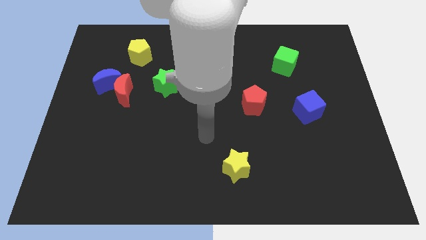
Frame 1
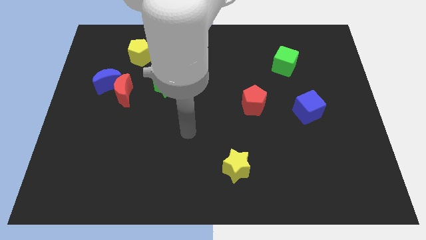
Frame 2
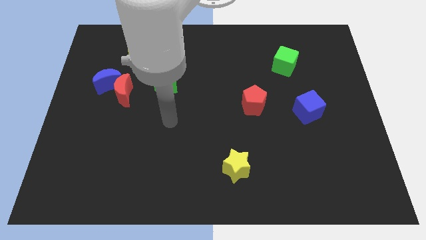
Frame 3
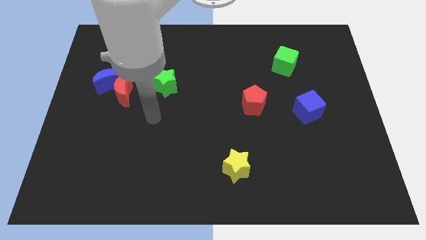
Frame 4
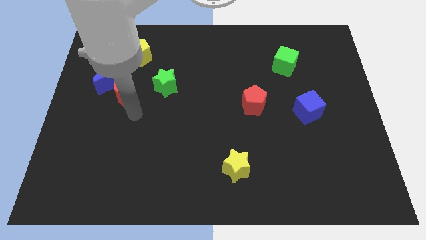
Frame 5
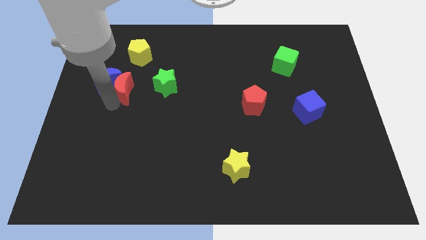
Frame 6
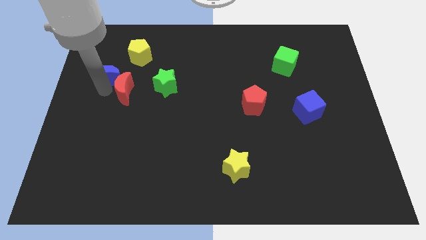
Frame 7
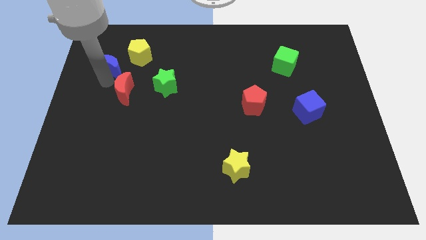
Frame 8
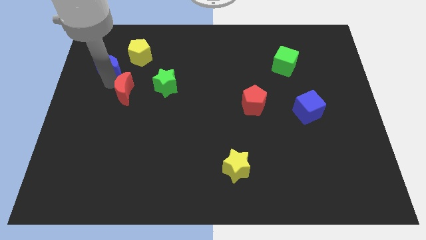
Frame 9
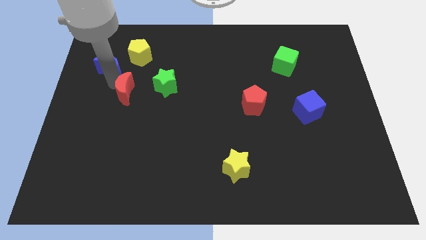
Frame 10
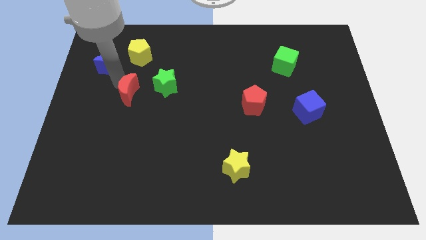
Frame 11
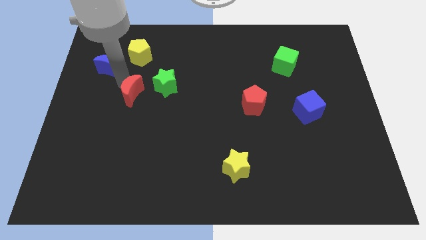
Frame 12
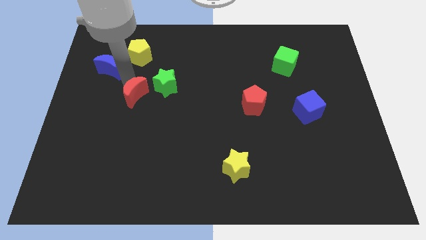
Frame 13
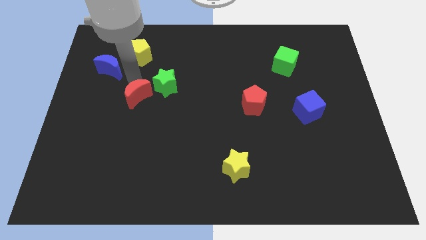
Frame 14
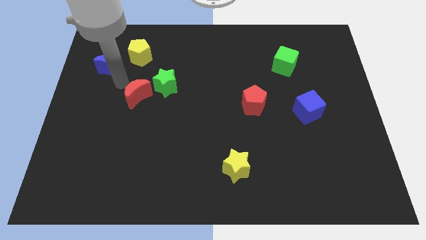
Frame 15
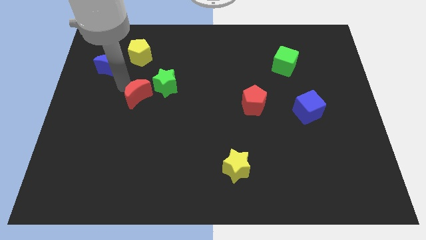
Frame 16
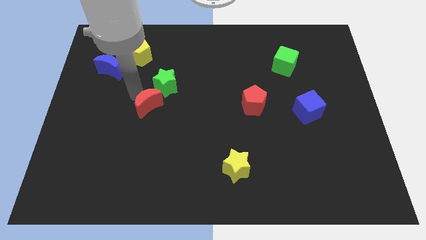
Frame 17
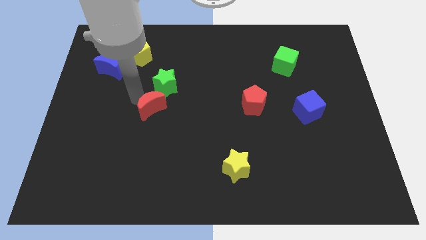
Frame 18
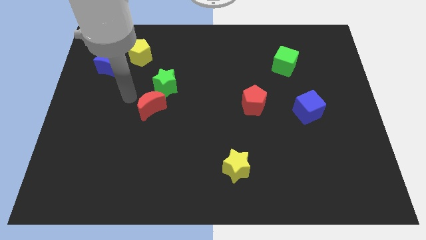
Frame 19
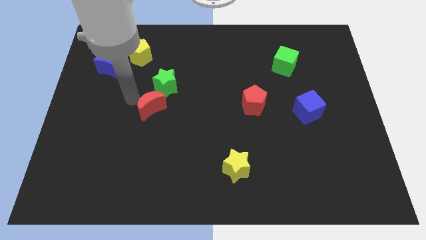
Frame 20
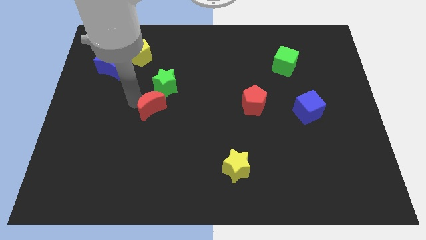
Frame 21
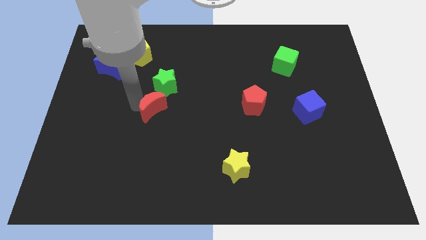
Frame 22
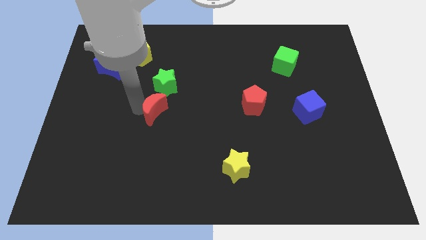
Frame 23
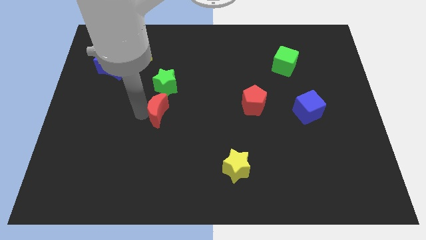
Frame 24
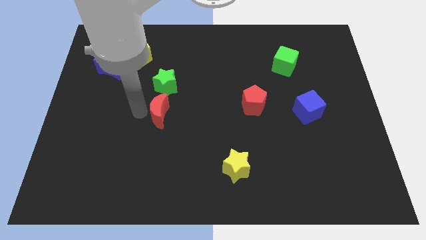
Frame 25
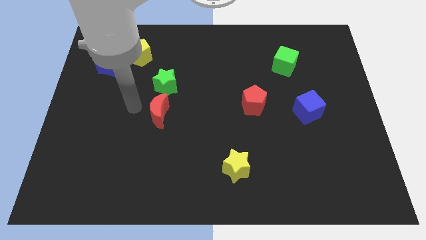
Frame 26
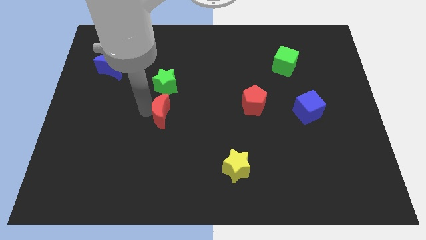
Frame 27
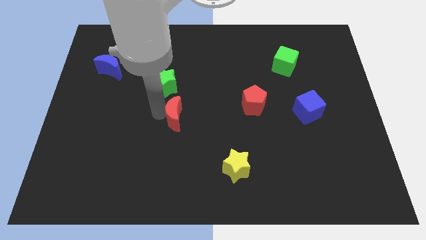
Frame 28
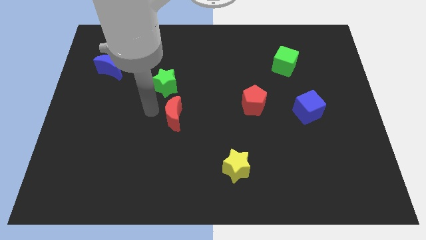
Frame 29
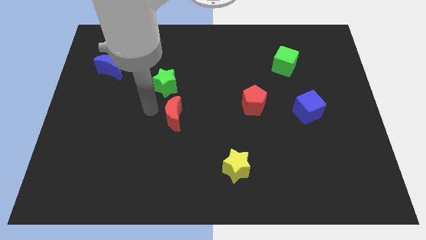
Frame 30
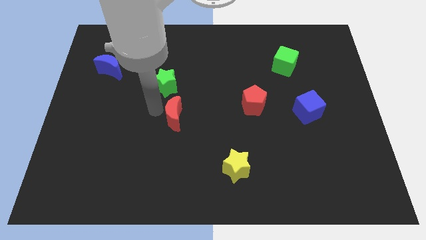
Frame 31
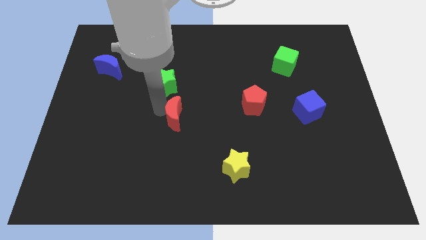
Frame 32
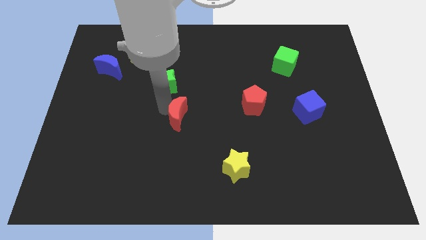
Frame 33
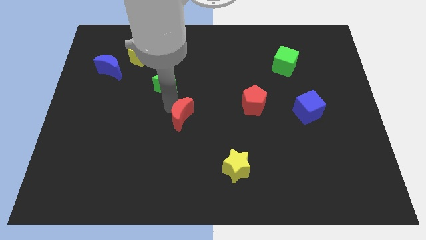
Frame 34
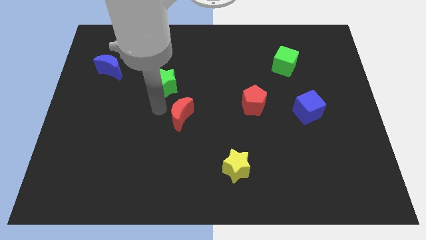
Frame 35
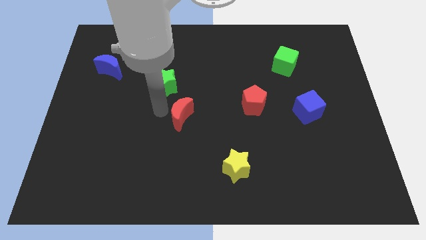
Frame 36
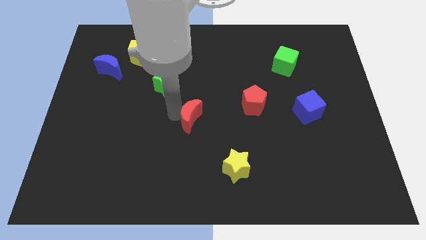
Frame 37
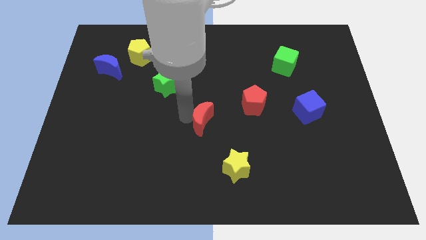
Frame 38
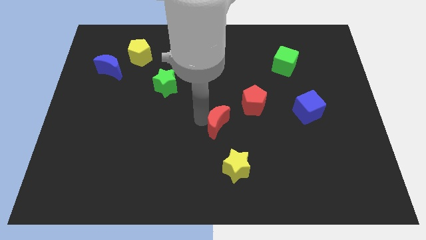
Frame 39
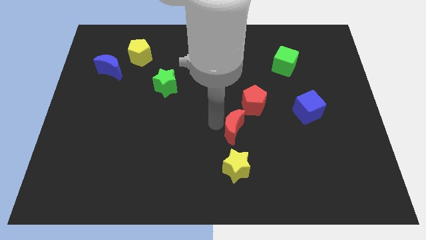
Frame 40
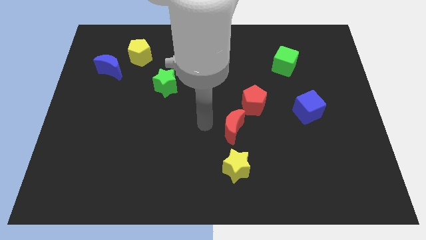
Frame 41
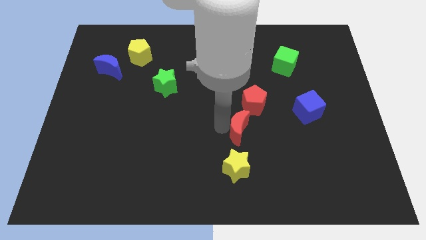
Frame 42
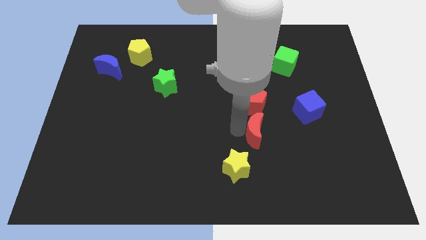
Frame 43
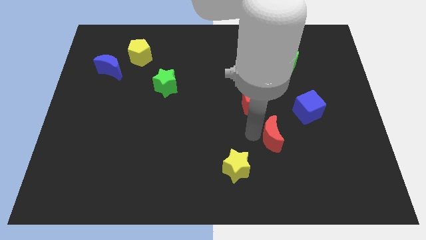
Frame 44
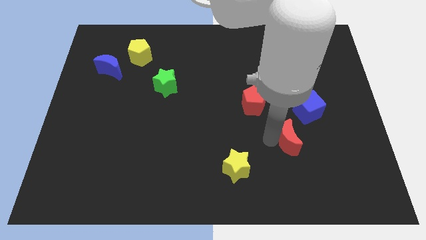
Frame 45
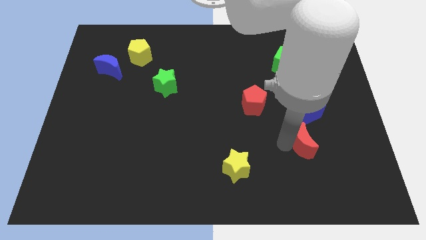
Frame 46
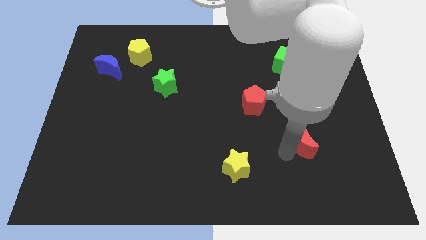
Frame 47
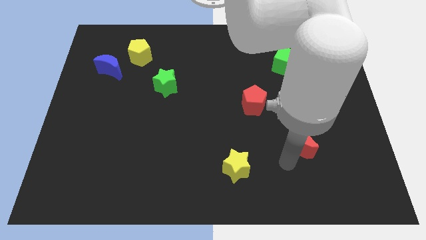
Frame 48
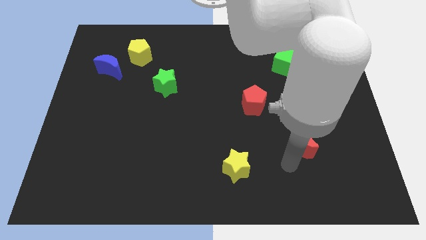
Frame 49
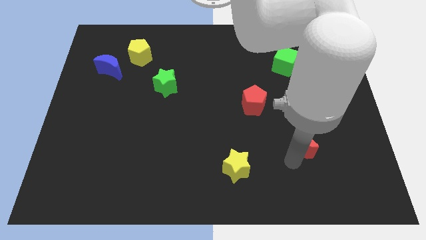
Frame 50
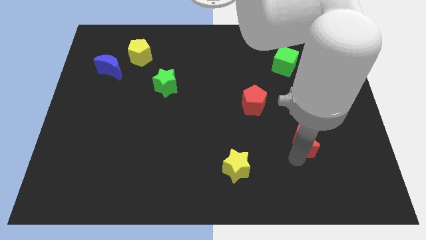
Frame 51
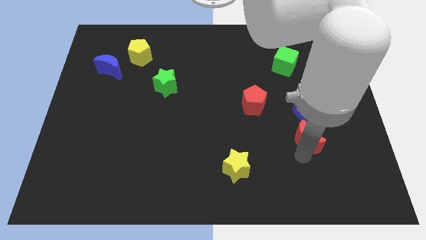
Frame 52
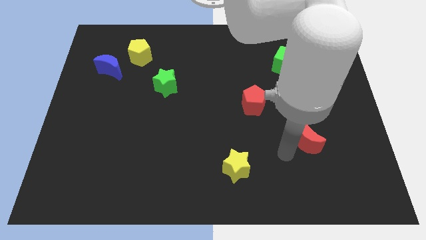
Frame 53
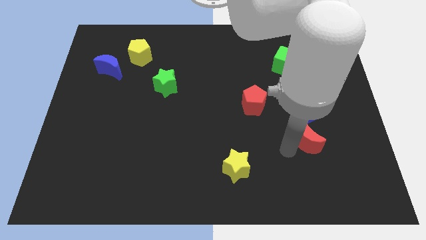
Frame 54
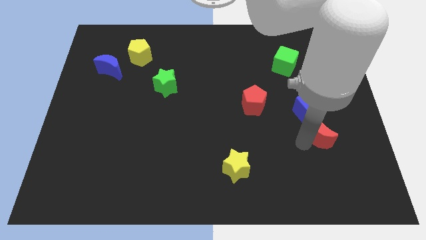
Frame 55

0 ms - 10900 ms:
move the red moon diagonally down and to the right of the blue cube

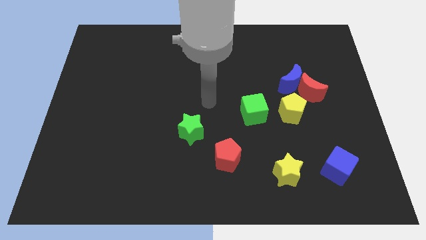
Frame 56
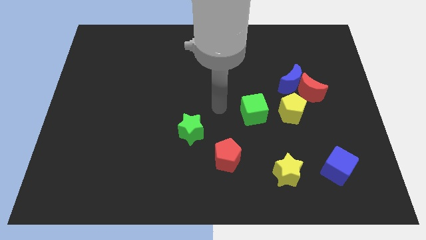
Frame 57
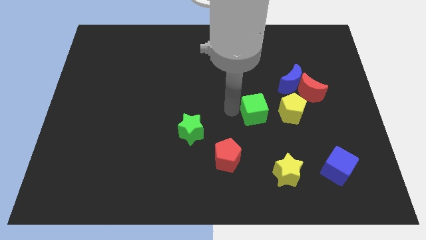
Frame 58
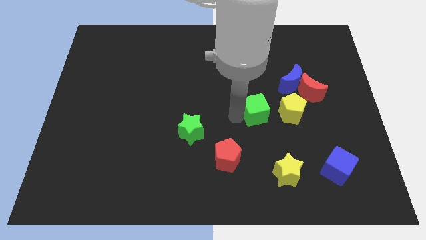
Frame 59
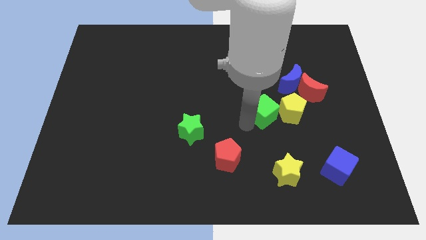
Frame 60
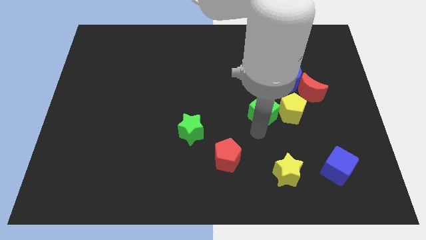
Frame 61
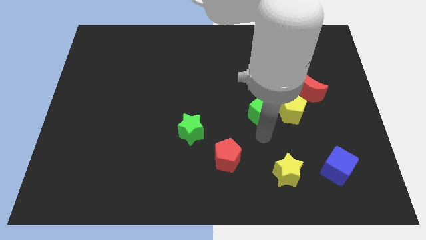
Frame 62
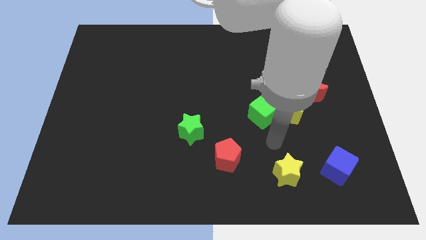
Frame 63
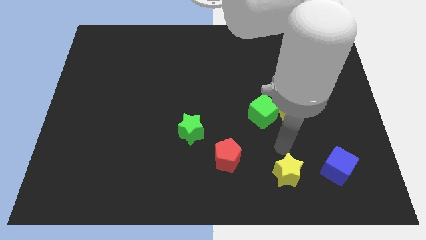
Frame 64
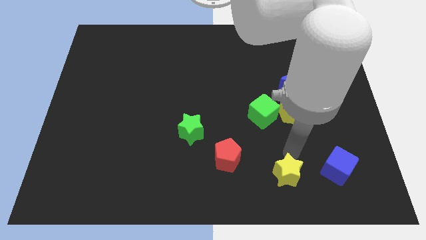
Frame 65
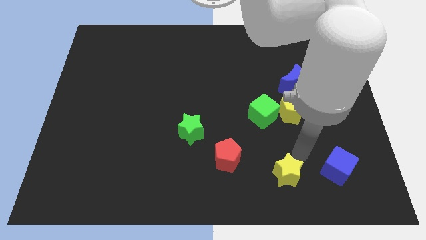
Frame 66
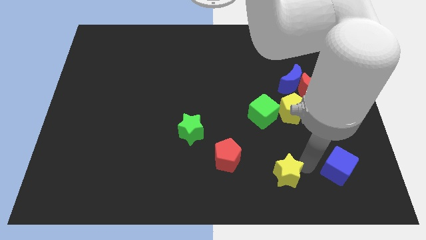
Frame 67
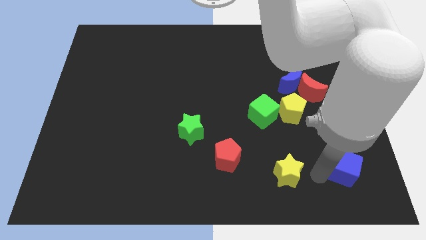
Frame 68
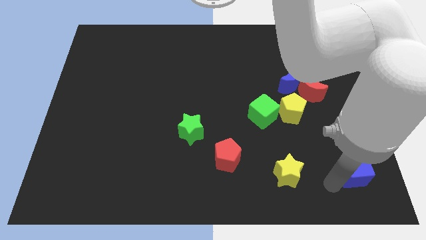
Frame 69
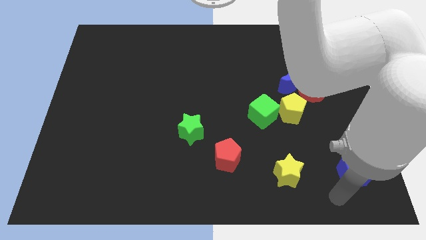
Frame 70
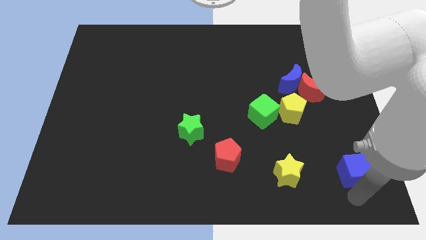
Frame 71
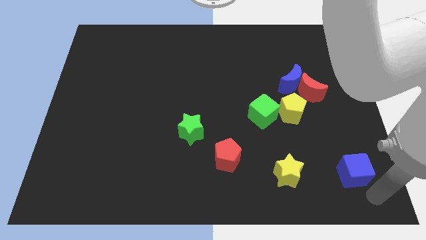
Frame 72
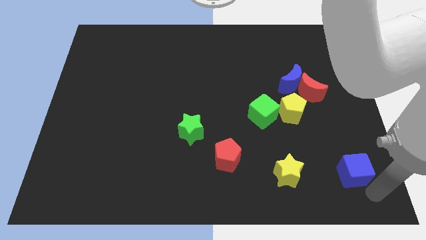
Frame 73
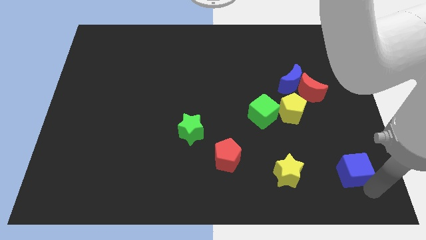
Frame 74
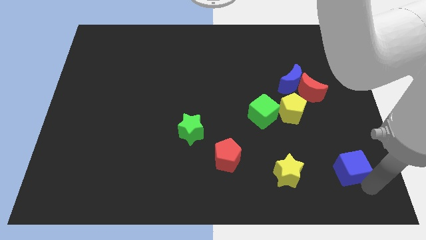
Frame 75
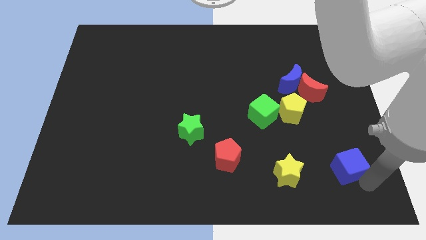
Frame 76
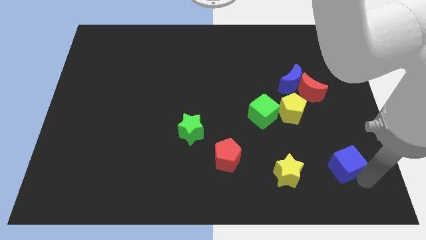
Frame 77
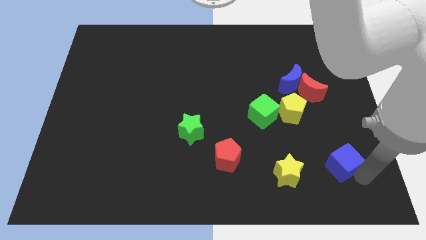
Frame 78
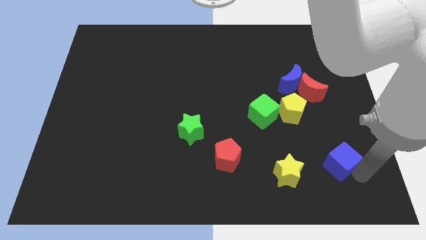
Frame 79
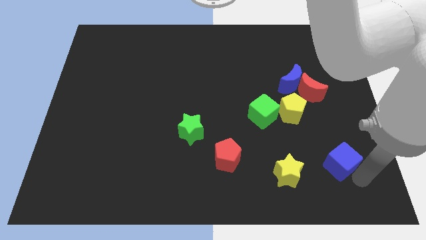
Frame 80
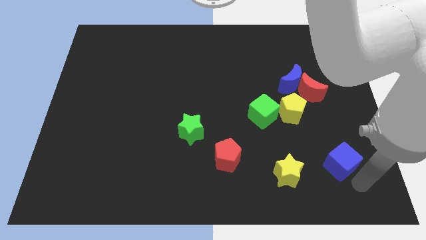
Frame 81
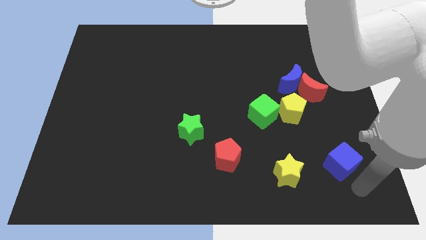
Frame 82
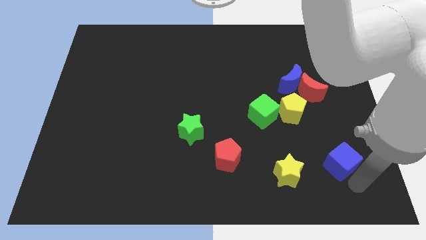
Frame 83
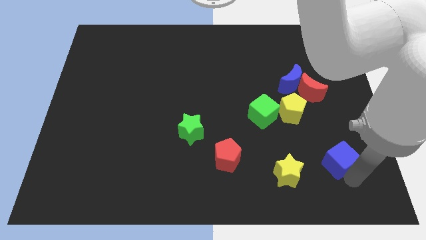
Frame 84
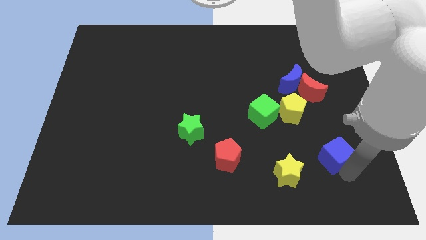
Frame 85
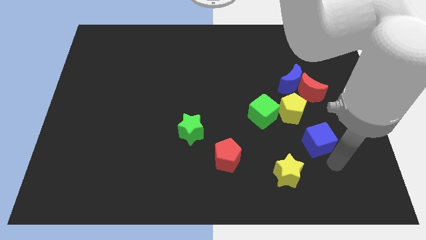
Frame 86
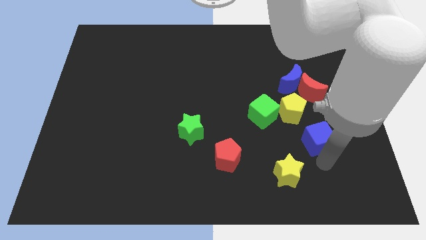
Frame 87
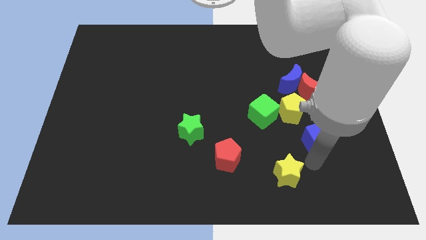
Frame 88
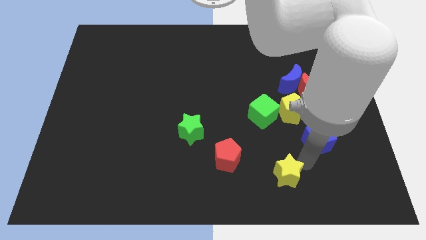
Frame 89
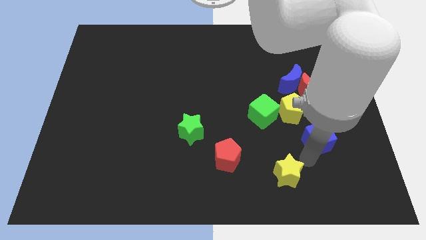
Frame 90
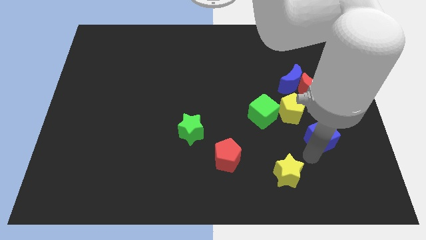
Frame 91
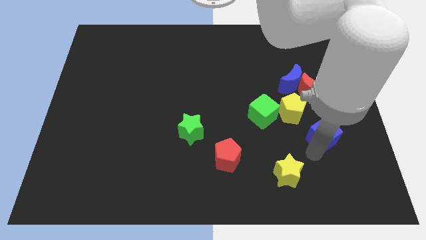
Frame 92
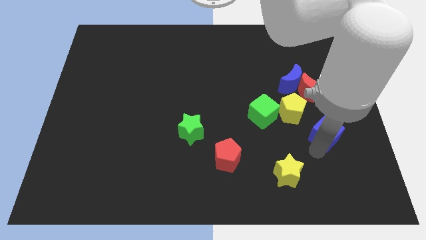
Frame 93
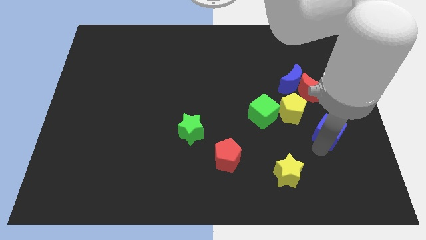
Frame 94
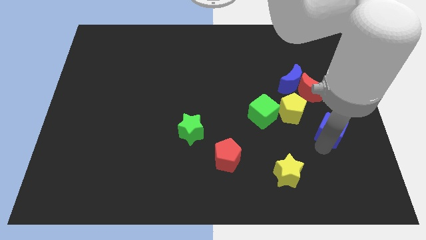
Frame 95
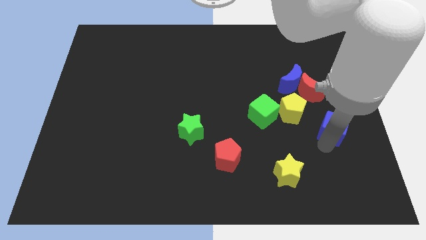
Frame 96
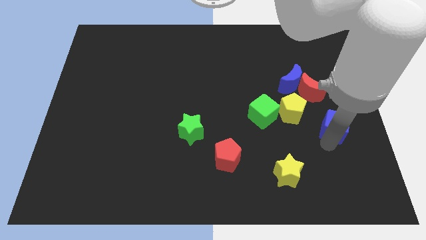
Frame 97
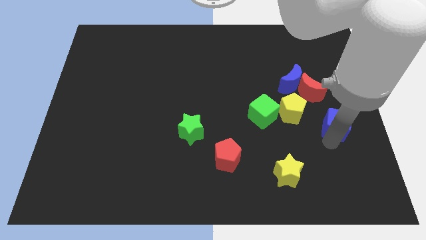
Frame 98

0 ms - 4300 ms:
slide the blue cube to the bottom right of the red moon
